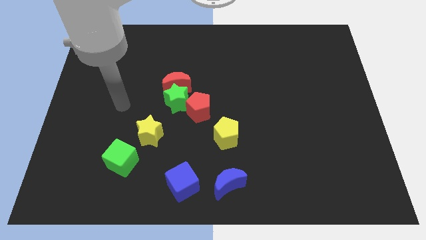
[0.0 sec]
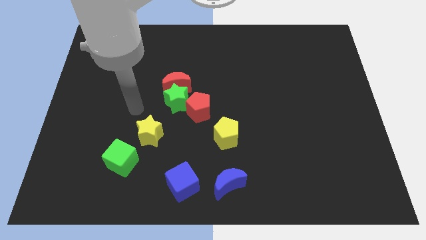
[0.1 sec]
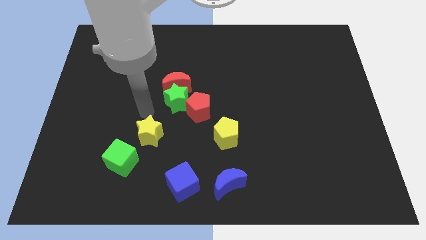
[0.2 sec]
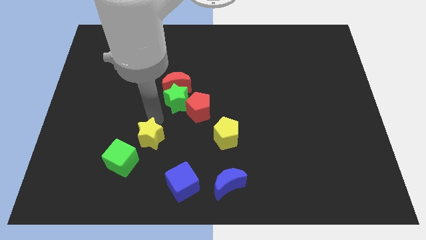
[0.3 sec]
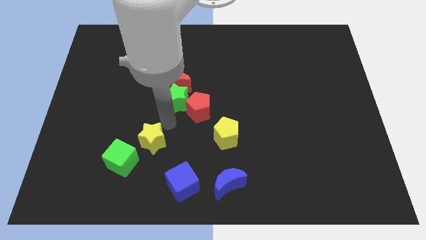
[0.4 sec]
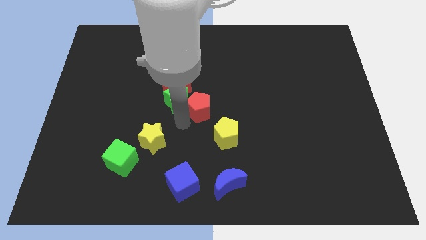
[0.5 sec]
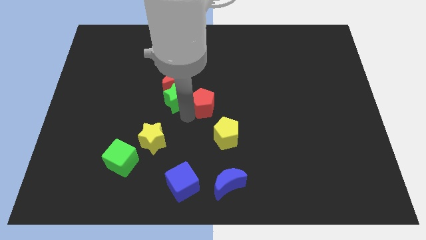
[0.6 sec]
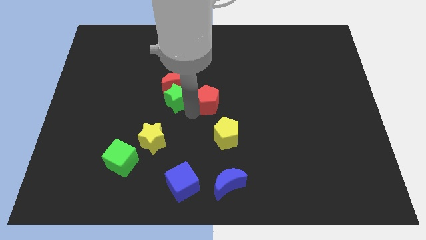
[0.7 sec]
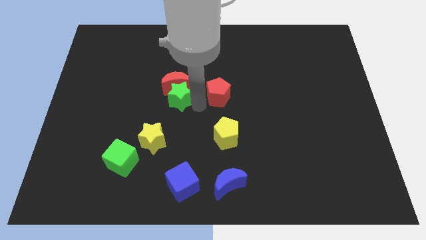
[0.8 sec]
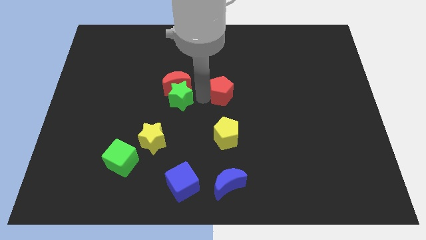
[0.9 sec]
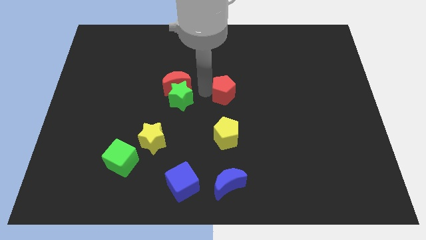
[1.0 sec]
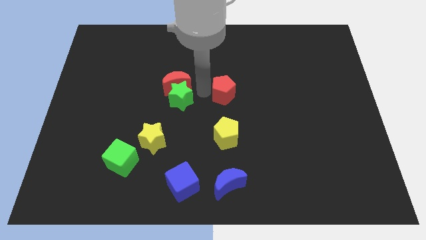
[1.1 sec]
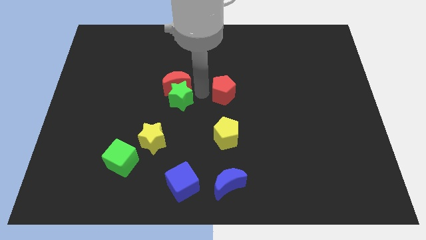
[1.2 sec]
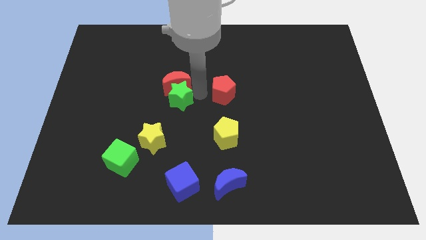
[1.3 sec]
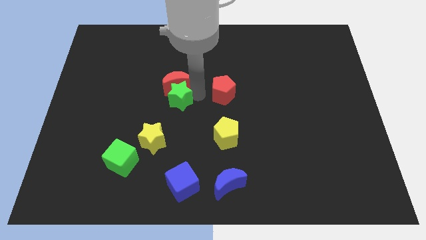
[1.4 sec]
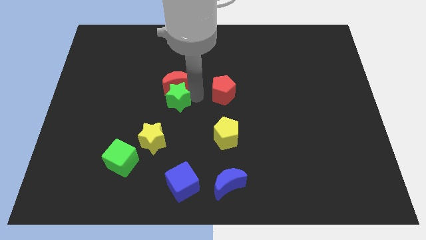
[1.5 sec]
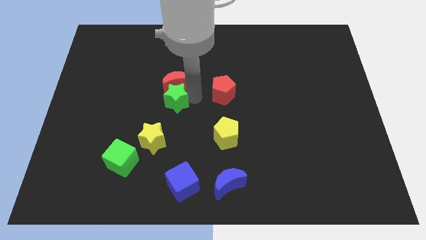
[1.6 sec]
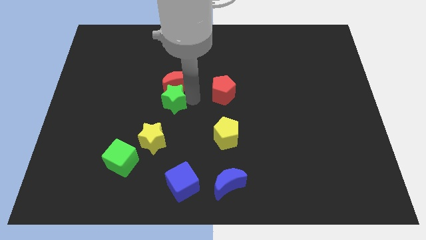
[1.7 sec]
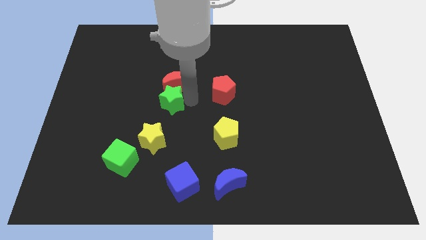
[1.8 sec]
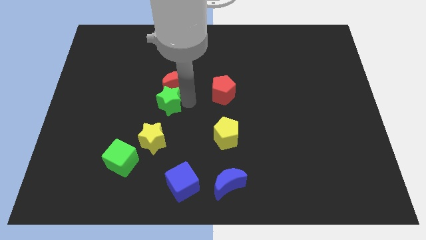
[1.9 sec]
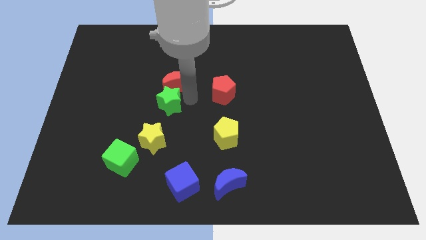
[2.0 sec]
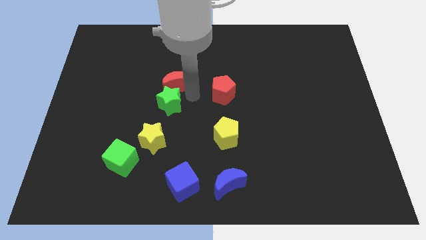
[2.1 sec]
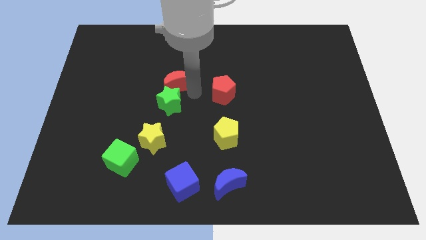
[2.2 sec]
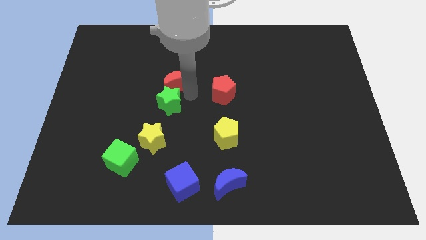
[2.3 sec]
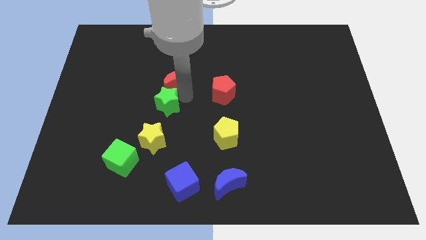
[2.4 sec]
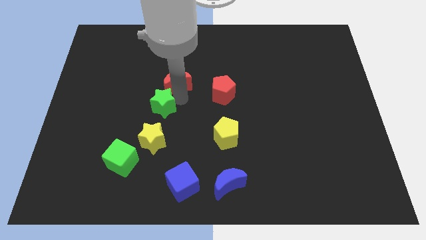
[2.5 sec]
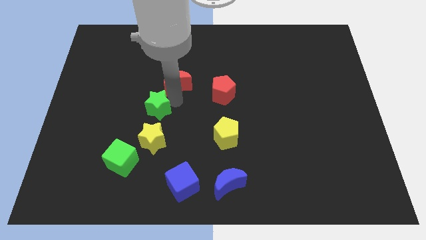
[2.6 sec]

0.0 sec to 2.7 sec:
move the green star away from the red moon and red pentagon

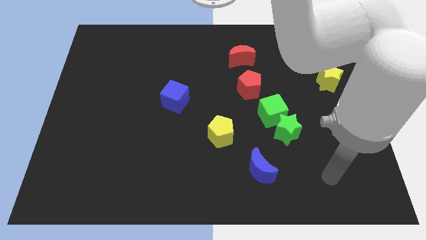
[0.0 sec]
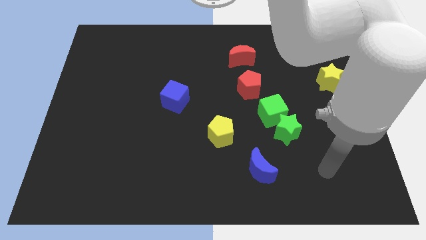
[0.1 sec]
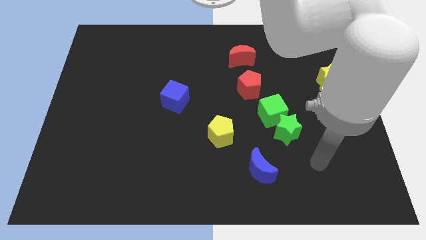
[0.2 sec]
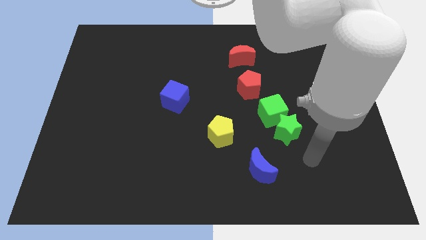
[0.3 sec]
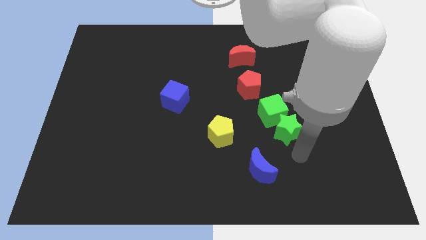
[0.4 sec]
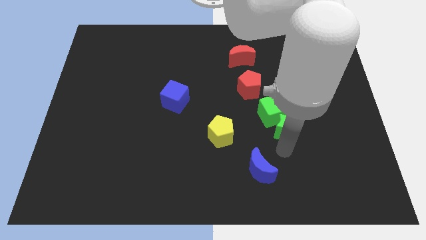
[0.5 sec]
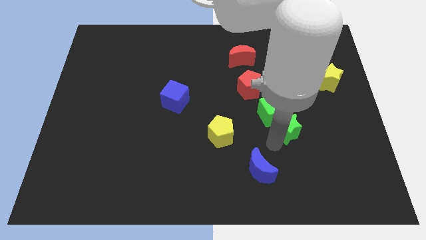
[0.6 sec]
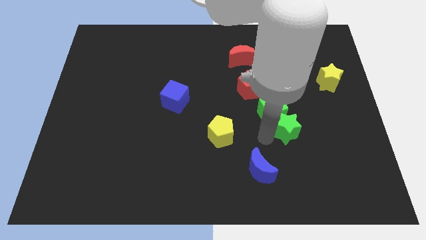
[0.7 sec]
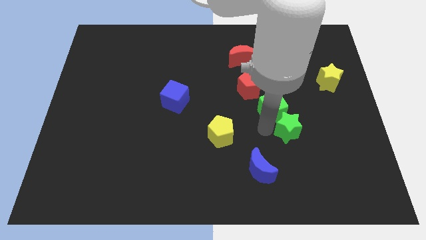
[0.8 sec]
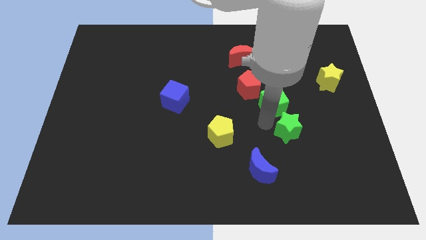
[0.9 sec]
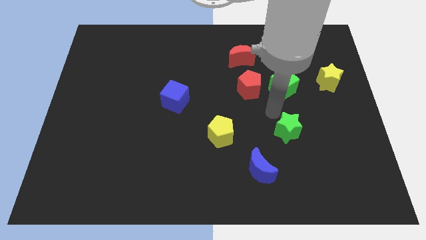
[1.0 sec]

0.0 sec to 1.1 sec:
pull the green star apart from the green cube

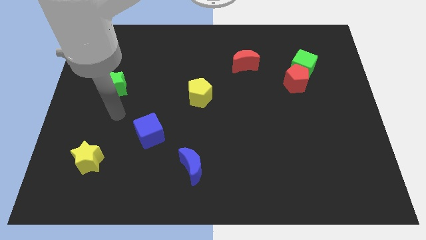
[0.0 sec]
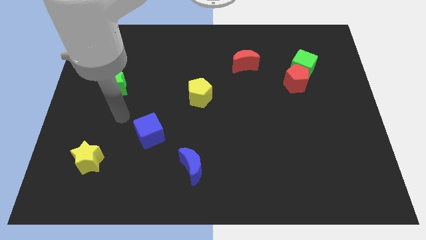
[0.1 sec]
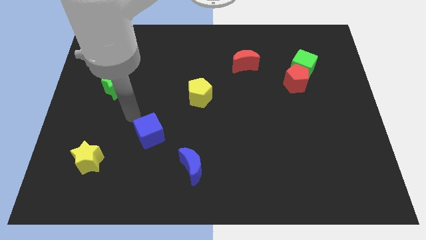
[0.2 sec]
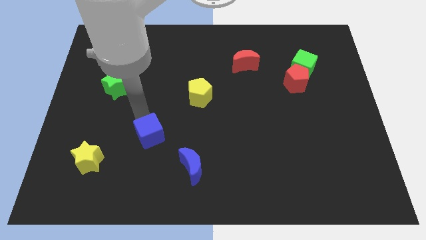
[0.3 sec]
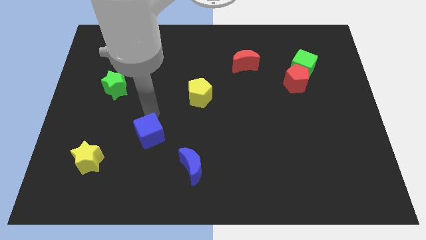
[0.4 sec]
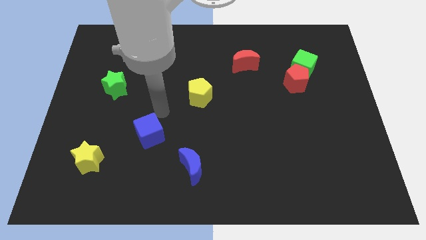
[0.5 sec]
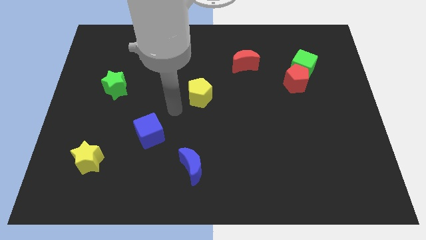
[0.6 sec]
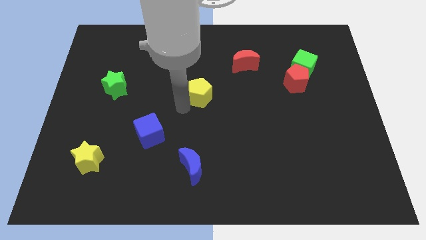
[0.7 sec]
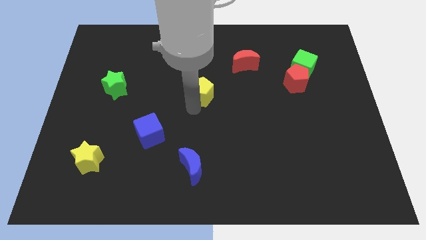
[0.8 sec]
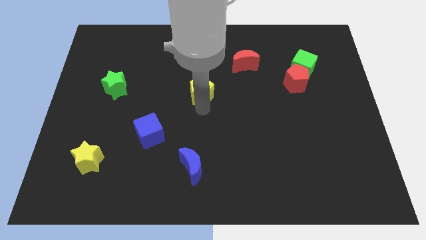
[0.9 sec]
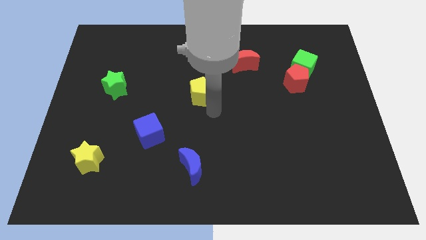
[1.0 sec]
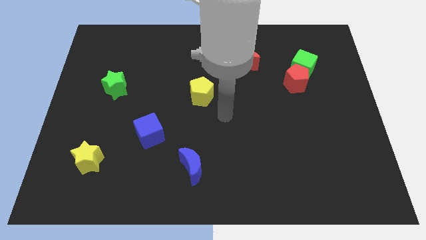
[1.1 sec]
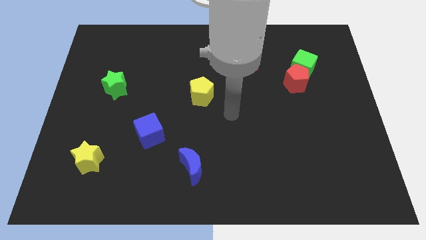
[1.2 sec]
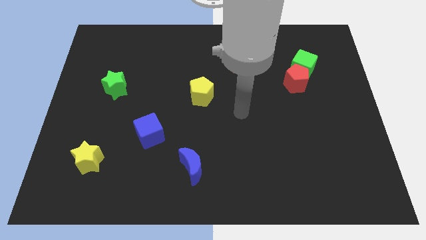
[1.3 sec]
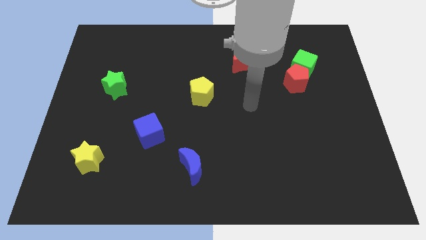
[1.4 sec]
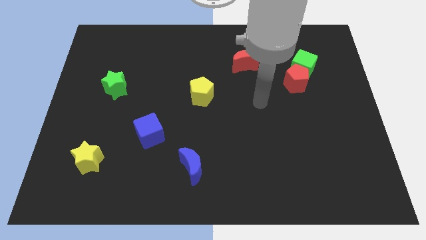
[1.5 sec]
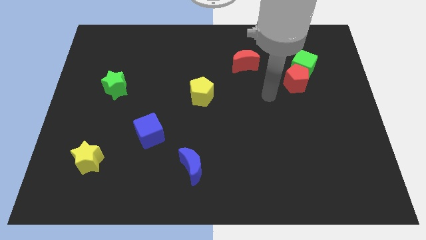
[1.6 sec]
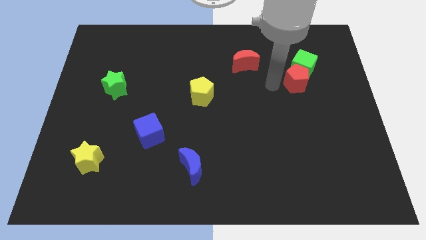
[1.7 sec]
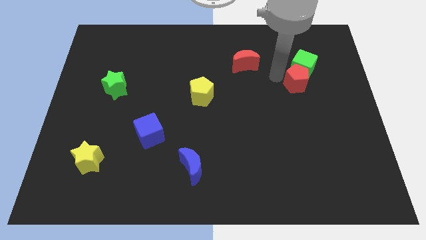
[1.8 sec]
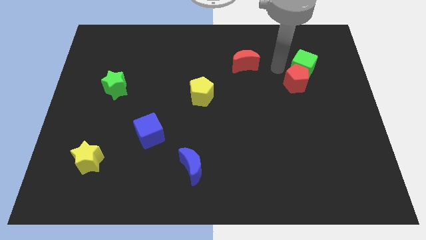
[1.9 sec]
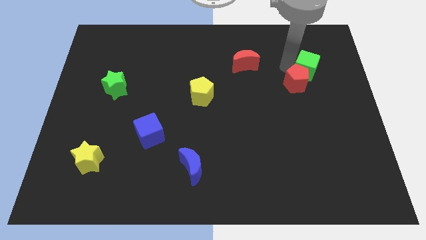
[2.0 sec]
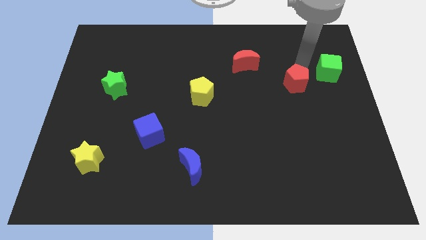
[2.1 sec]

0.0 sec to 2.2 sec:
move the red pentagon away from the green cube

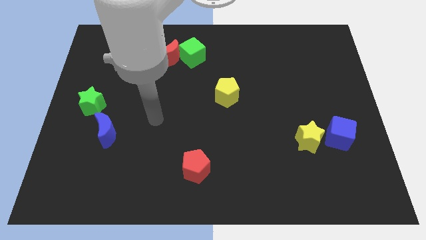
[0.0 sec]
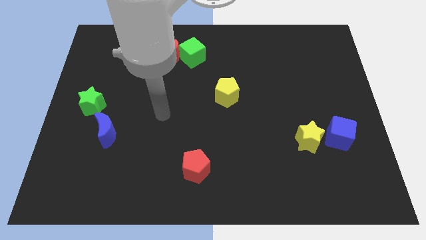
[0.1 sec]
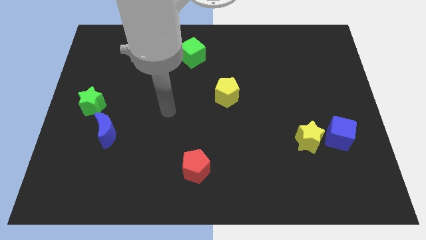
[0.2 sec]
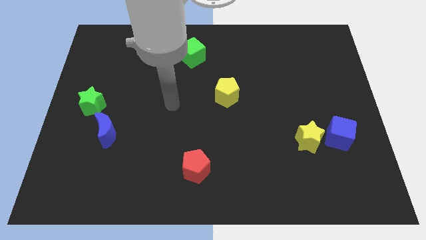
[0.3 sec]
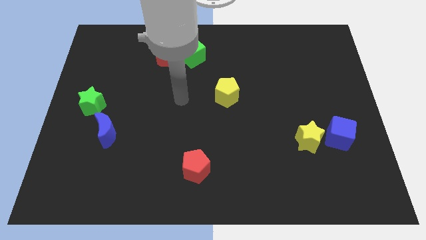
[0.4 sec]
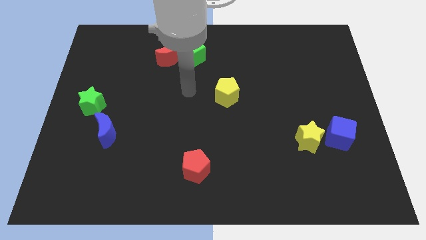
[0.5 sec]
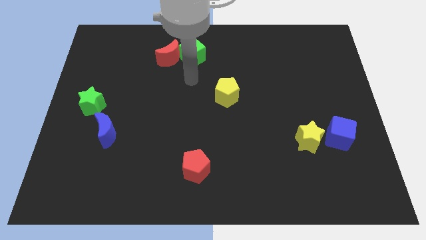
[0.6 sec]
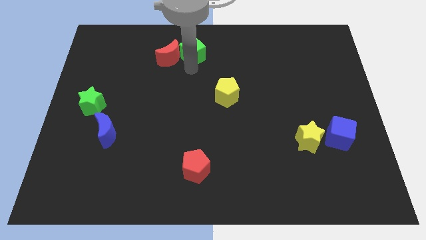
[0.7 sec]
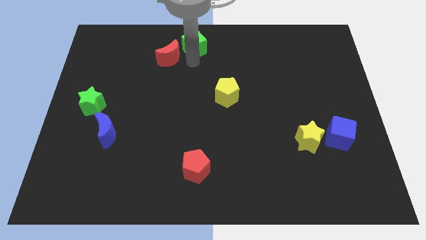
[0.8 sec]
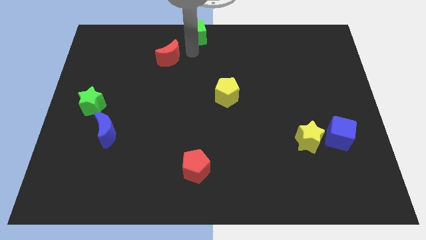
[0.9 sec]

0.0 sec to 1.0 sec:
move the red moon away from the green cube

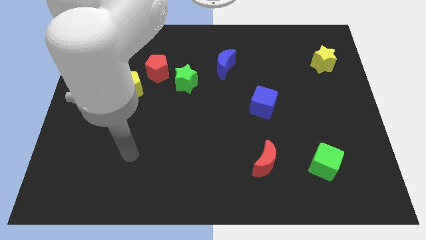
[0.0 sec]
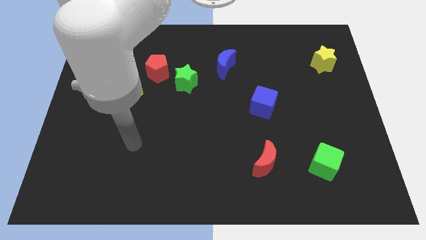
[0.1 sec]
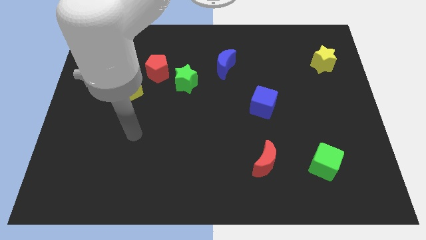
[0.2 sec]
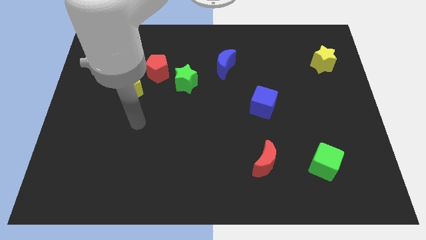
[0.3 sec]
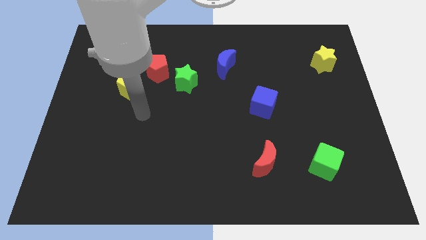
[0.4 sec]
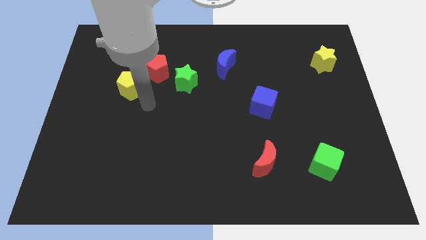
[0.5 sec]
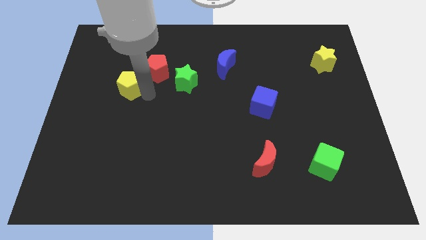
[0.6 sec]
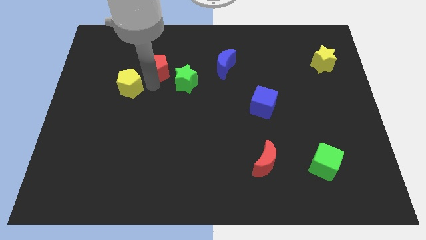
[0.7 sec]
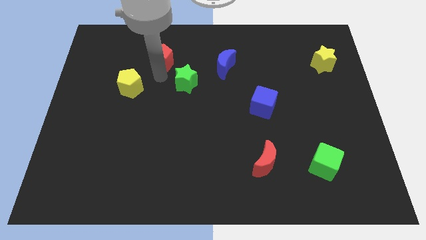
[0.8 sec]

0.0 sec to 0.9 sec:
move the green star away from the red pentagon

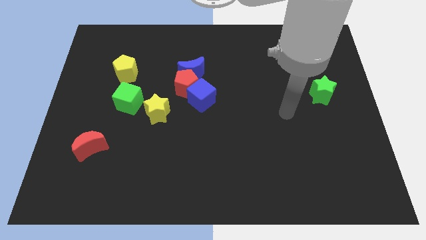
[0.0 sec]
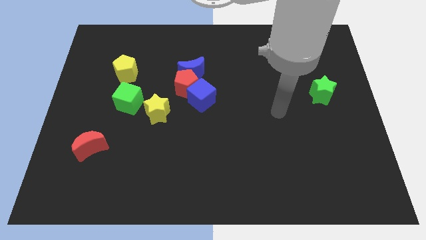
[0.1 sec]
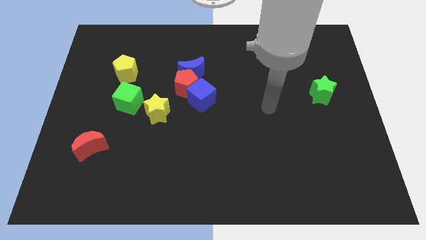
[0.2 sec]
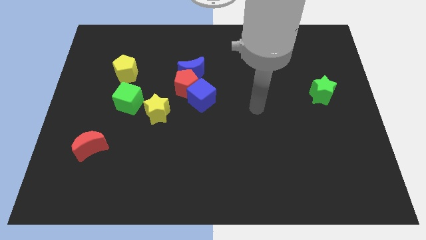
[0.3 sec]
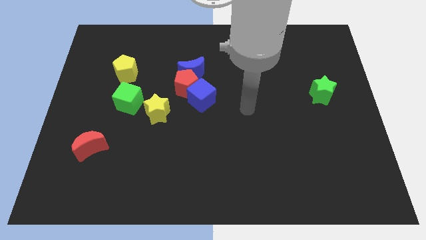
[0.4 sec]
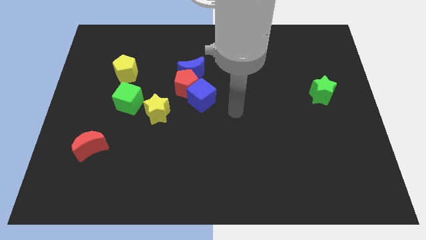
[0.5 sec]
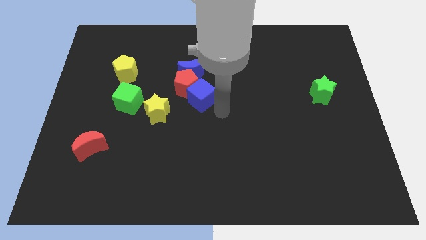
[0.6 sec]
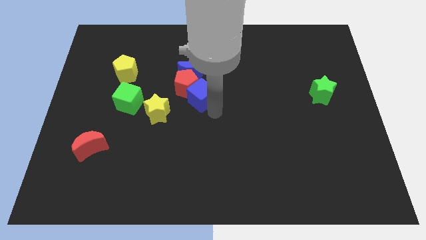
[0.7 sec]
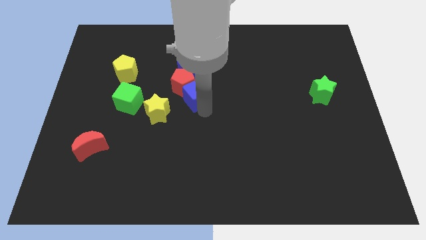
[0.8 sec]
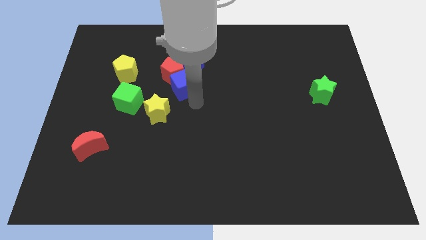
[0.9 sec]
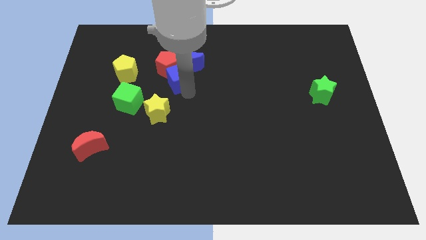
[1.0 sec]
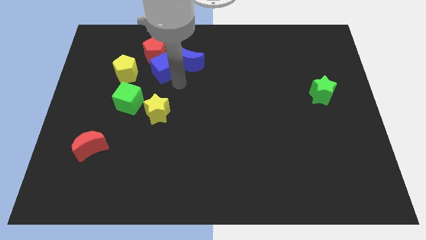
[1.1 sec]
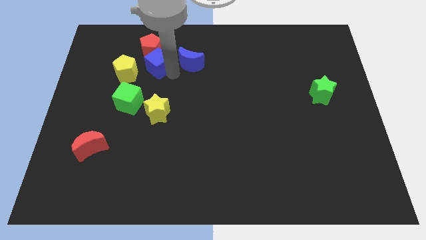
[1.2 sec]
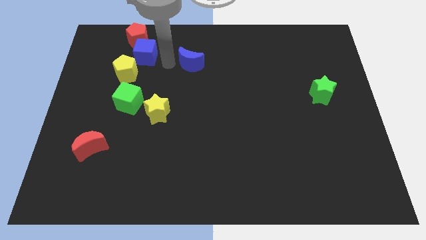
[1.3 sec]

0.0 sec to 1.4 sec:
separate the blue moon from the red pentagon and blue cube
